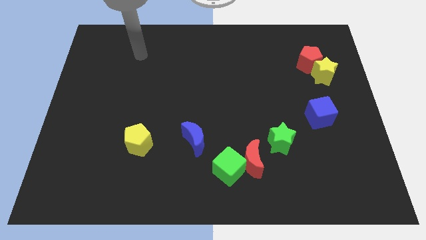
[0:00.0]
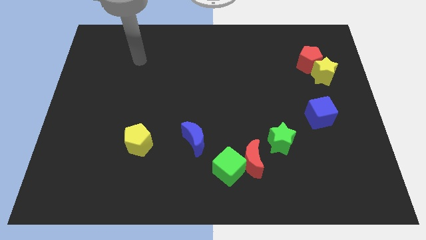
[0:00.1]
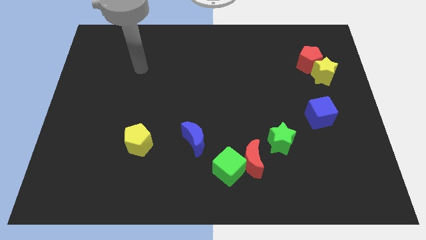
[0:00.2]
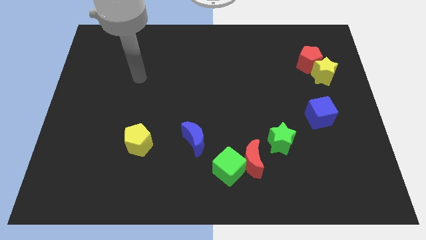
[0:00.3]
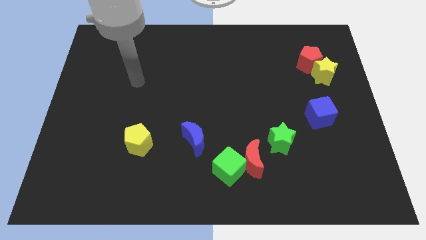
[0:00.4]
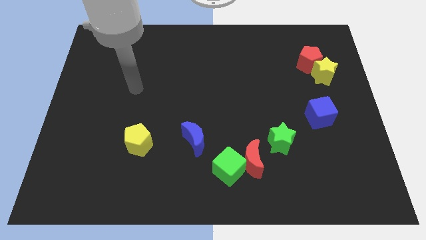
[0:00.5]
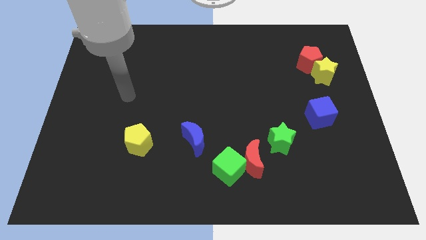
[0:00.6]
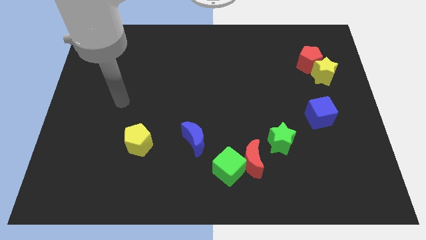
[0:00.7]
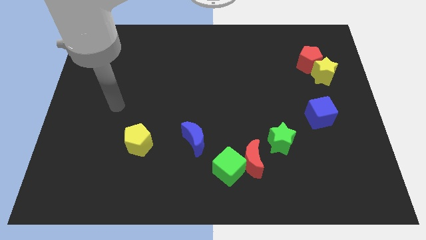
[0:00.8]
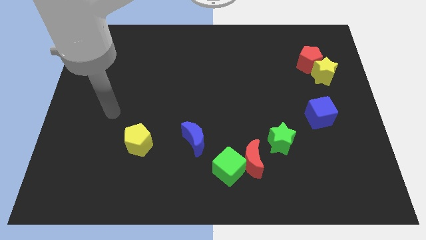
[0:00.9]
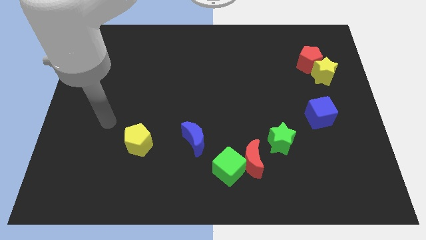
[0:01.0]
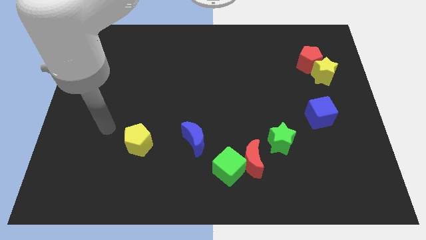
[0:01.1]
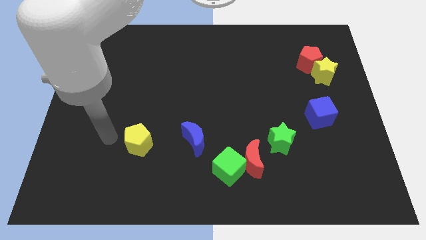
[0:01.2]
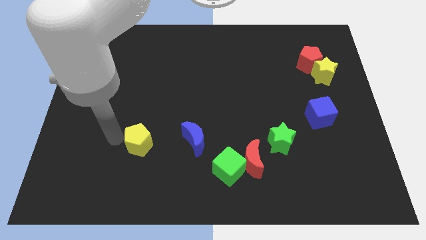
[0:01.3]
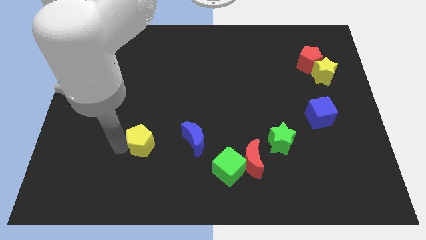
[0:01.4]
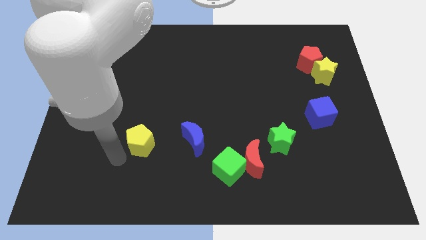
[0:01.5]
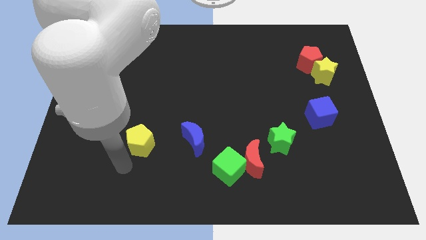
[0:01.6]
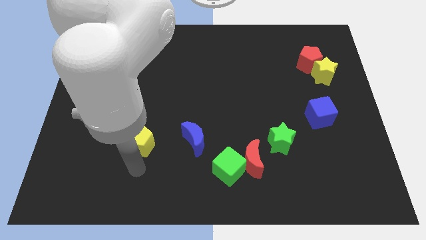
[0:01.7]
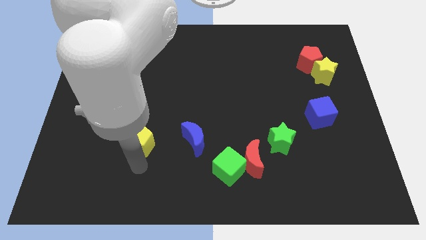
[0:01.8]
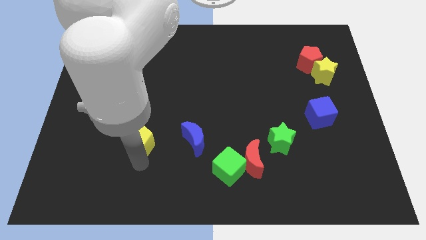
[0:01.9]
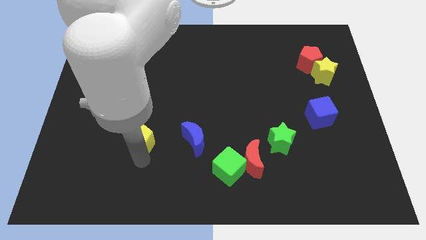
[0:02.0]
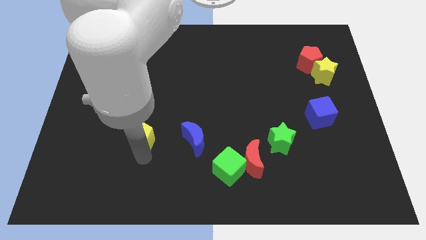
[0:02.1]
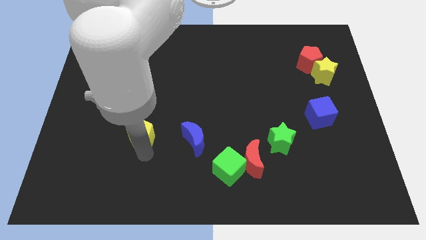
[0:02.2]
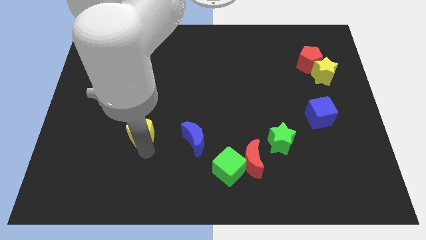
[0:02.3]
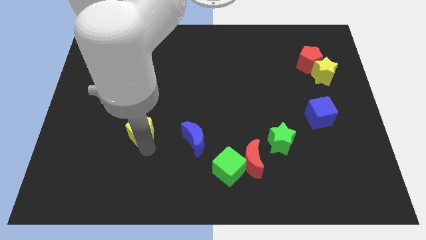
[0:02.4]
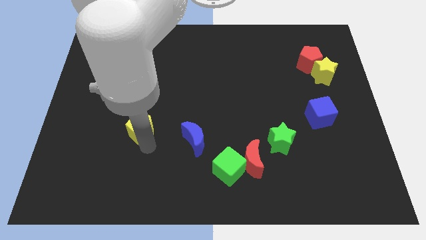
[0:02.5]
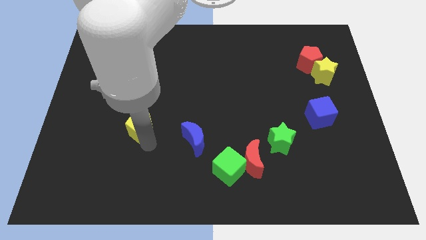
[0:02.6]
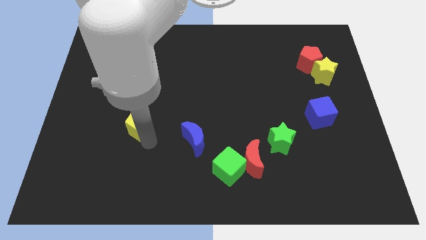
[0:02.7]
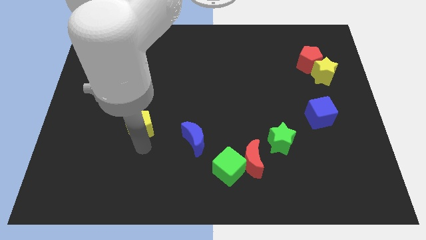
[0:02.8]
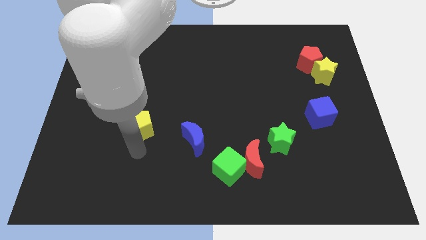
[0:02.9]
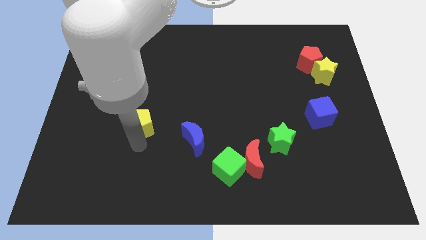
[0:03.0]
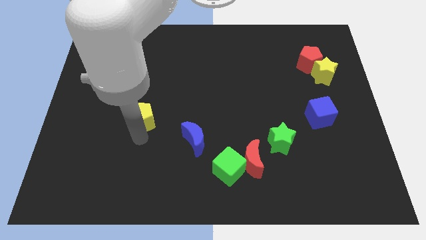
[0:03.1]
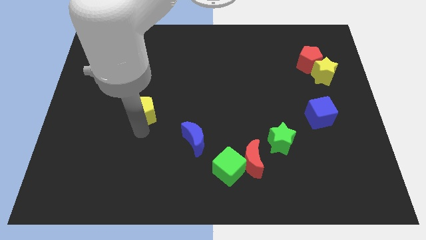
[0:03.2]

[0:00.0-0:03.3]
push the yellow pentagon up a little

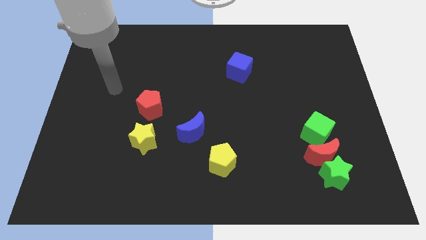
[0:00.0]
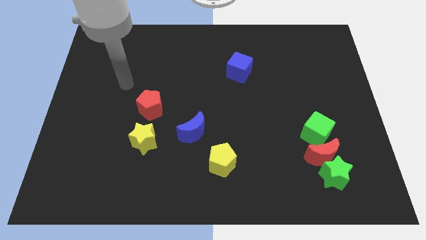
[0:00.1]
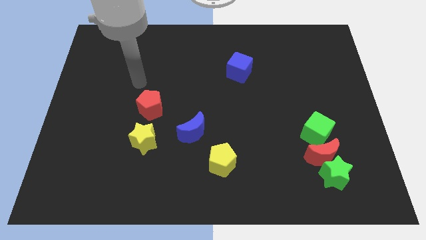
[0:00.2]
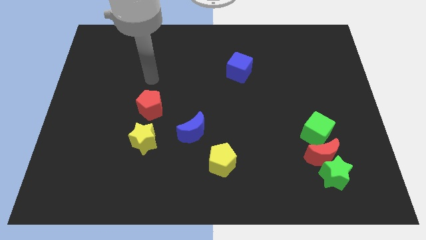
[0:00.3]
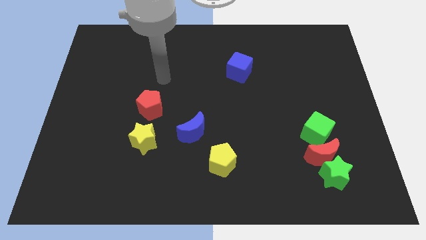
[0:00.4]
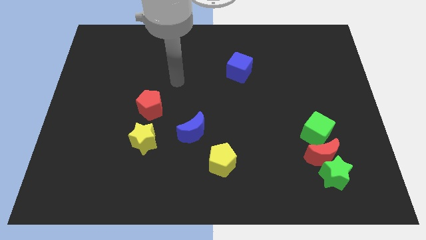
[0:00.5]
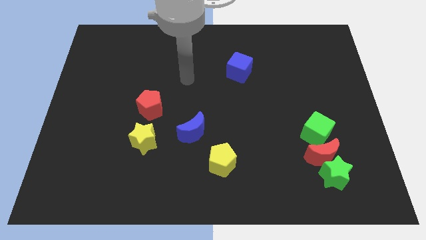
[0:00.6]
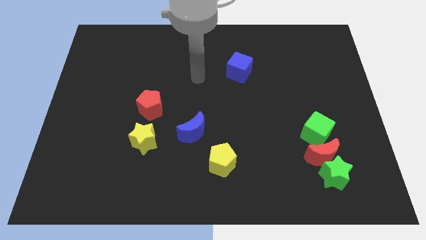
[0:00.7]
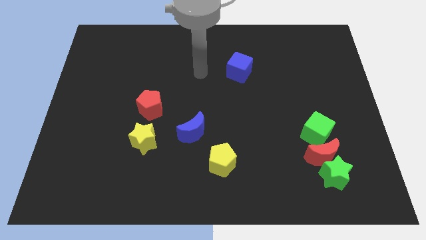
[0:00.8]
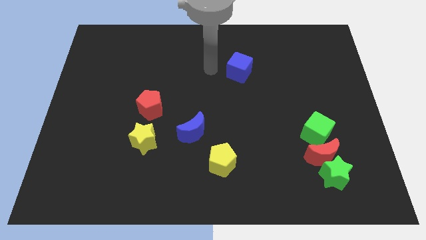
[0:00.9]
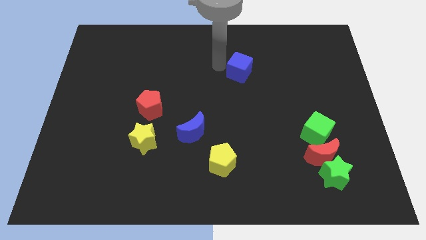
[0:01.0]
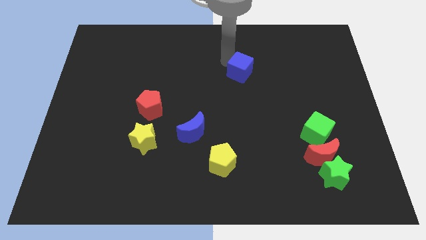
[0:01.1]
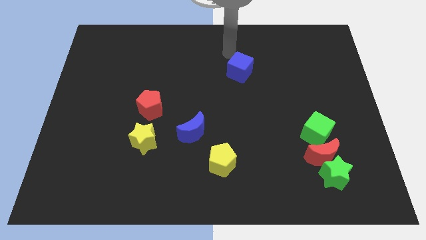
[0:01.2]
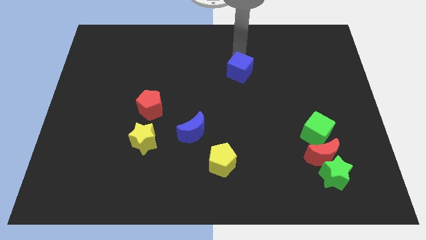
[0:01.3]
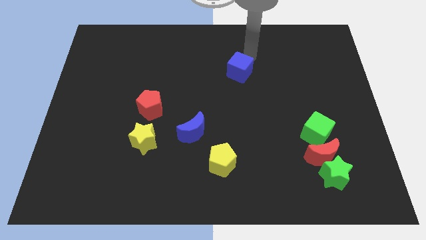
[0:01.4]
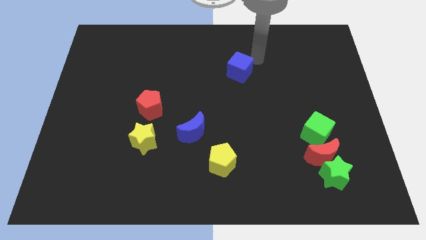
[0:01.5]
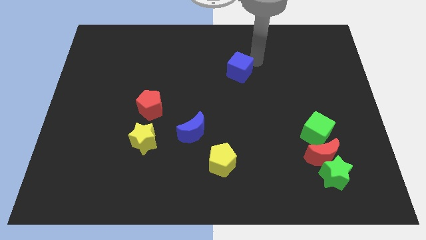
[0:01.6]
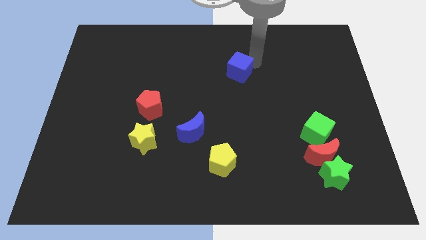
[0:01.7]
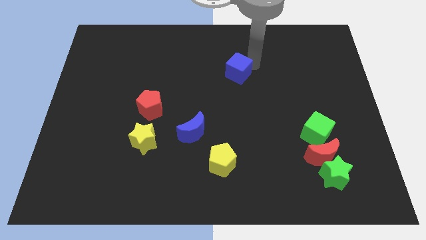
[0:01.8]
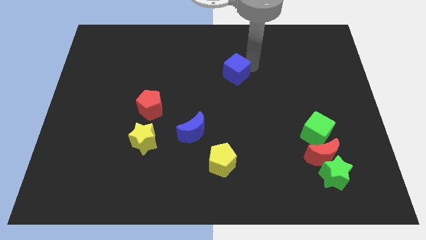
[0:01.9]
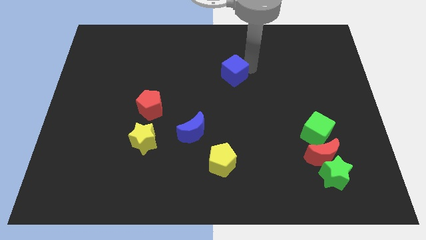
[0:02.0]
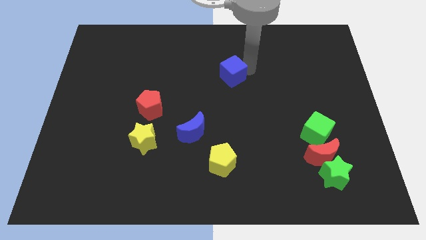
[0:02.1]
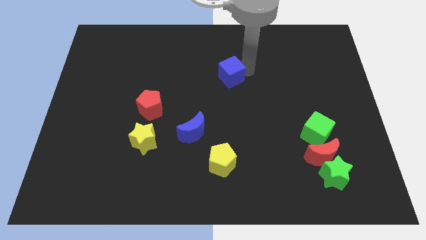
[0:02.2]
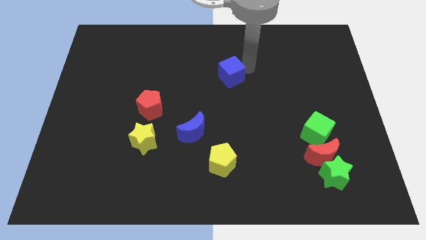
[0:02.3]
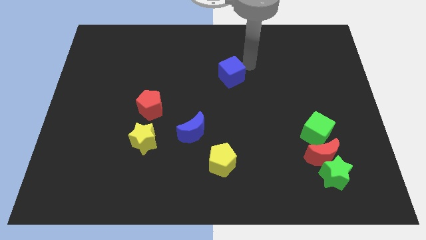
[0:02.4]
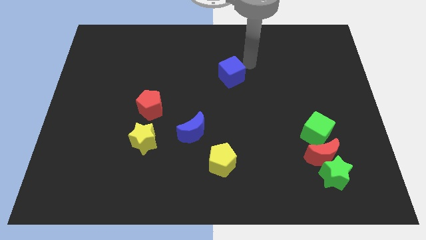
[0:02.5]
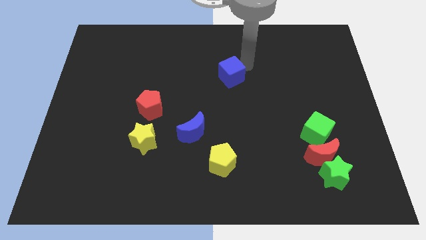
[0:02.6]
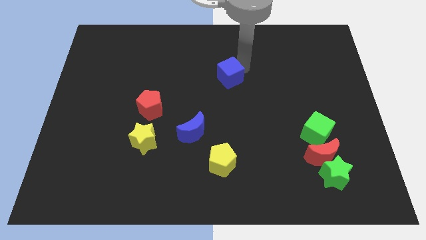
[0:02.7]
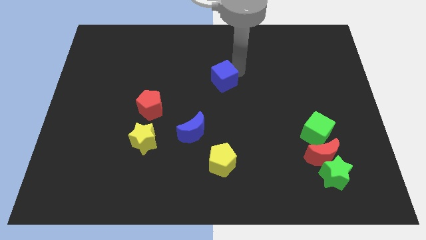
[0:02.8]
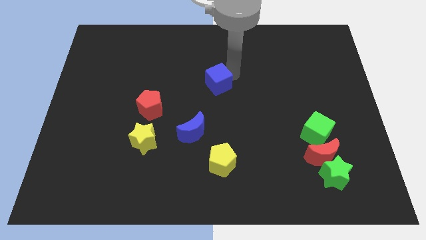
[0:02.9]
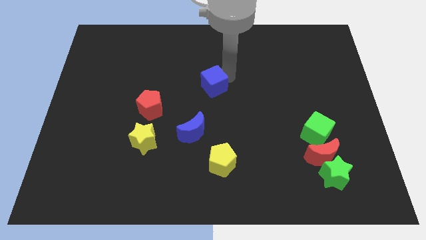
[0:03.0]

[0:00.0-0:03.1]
move the blue cube a little down and left diagonally

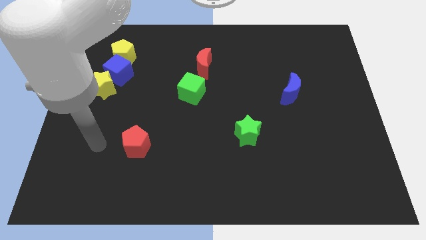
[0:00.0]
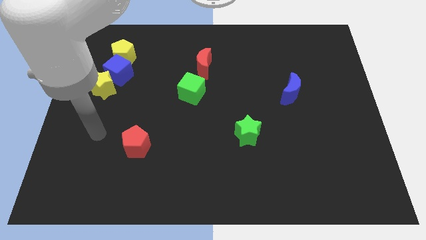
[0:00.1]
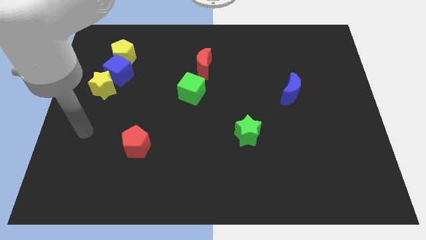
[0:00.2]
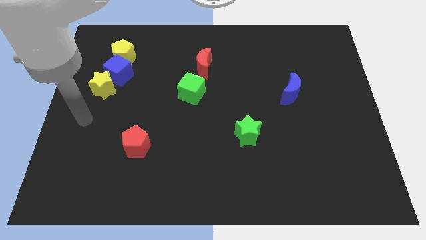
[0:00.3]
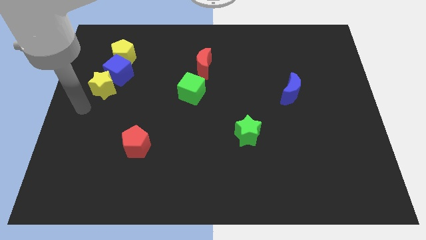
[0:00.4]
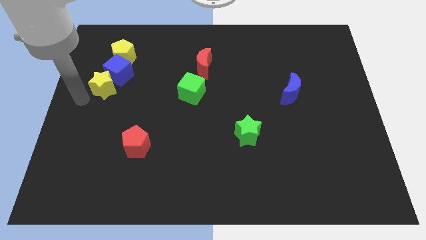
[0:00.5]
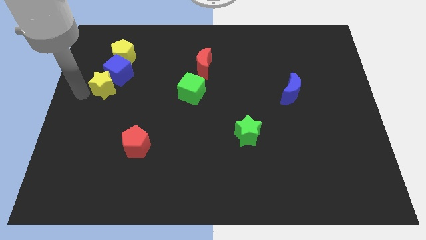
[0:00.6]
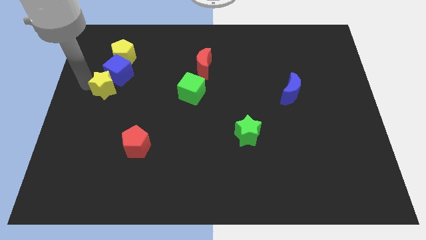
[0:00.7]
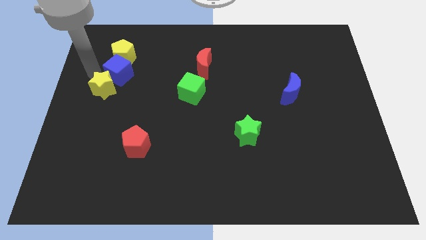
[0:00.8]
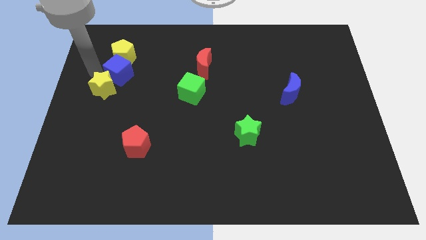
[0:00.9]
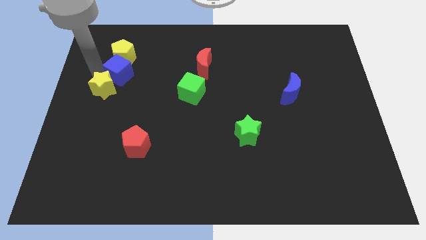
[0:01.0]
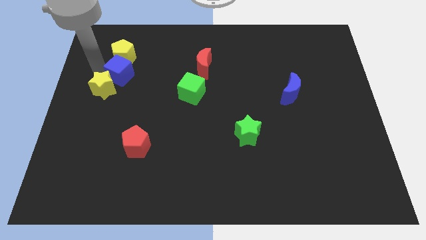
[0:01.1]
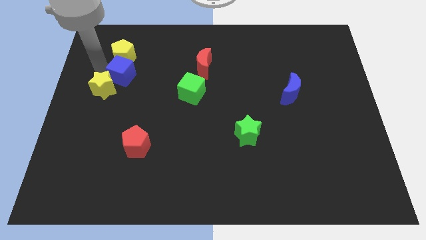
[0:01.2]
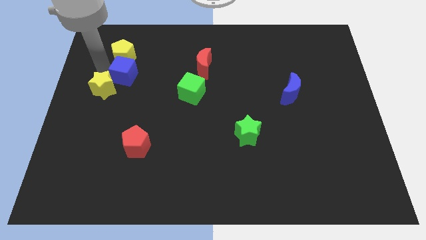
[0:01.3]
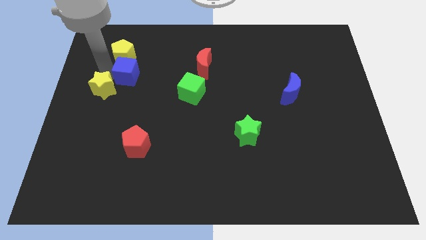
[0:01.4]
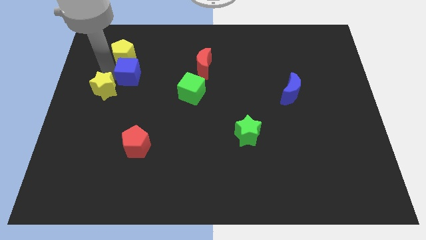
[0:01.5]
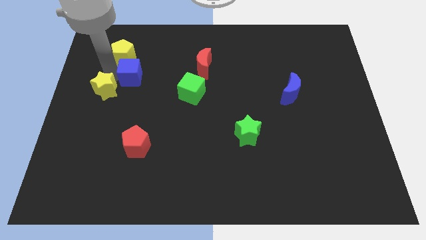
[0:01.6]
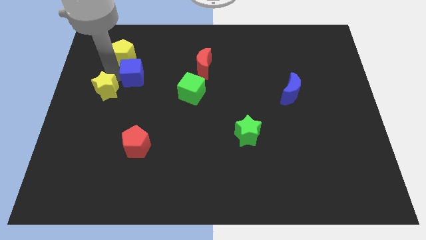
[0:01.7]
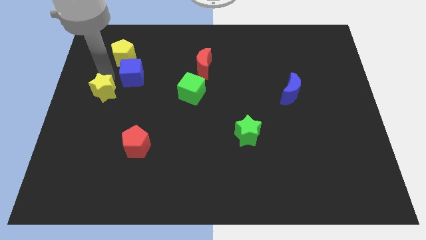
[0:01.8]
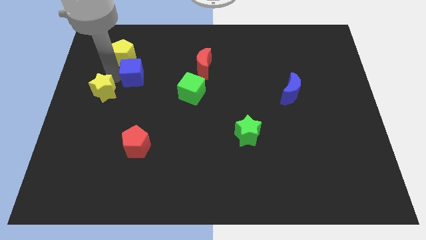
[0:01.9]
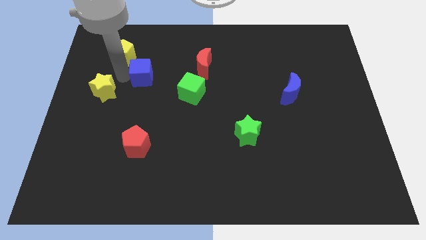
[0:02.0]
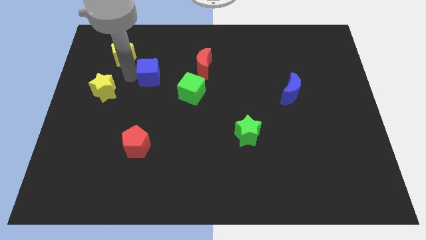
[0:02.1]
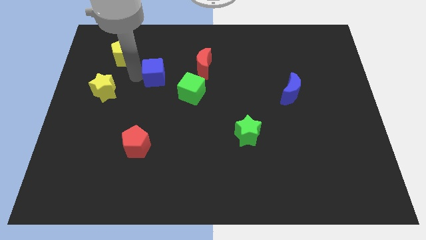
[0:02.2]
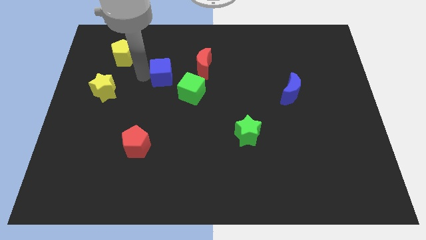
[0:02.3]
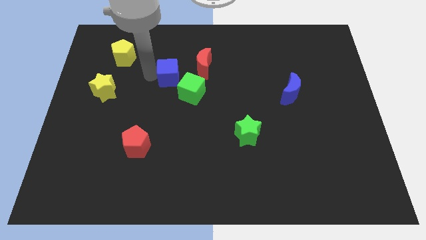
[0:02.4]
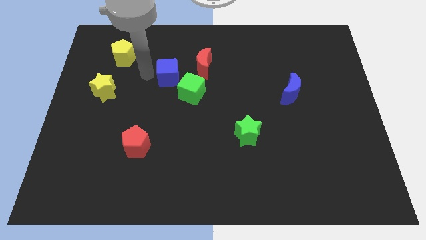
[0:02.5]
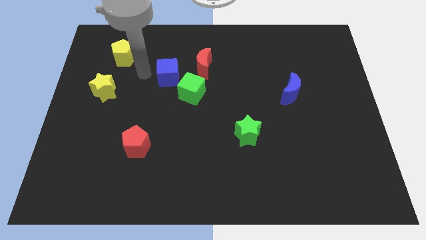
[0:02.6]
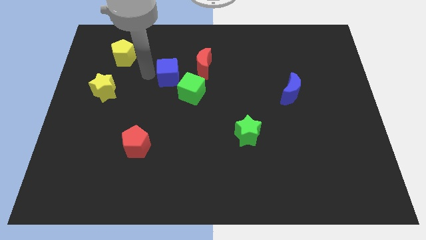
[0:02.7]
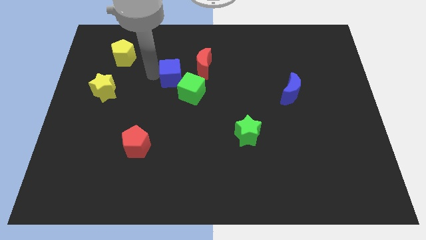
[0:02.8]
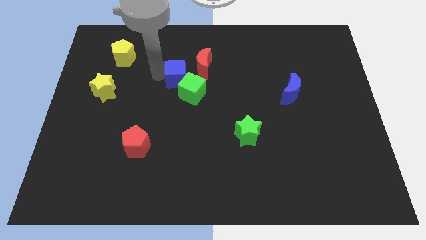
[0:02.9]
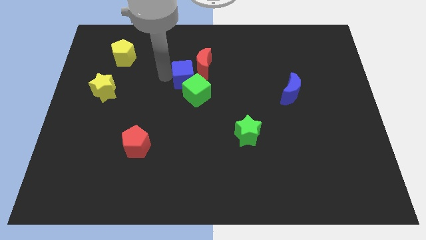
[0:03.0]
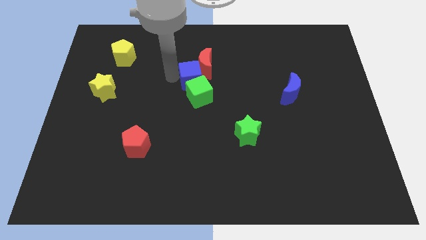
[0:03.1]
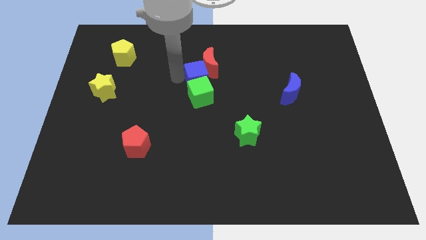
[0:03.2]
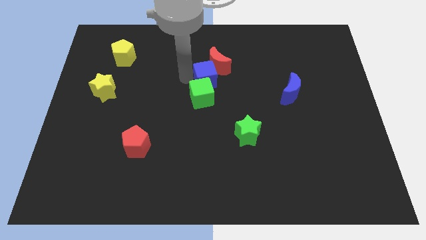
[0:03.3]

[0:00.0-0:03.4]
push the blue cube to the right
